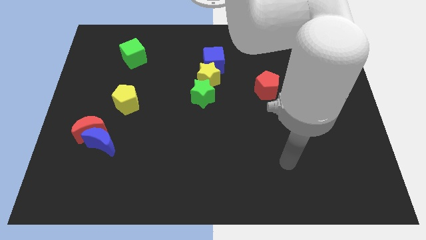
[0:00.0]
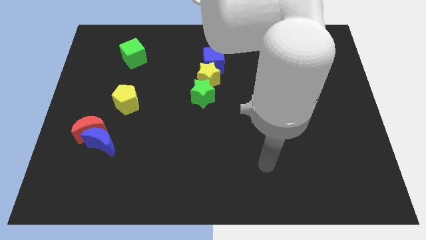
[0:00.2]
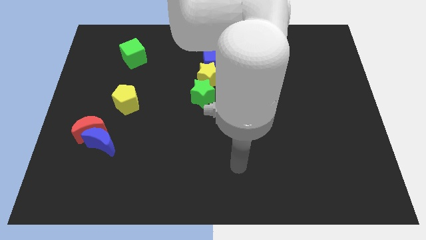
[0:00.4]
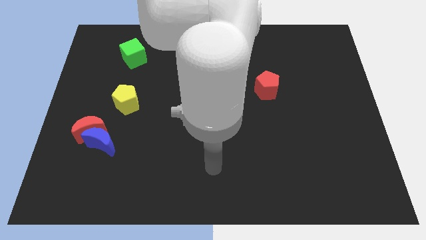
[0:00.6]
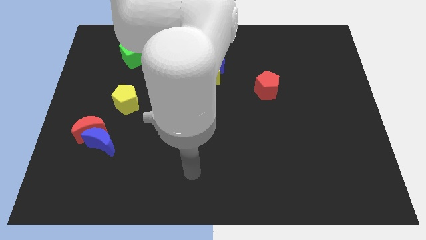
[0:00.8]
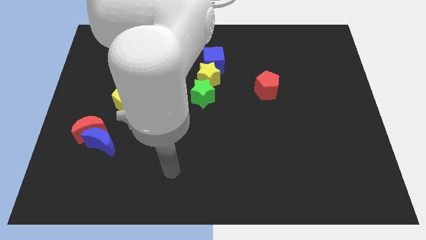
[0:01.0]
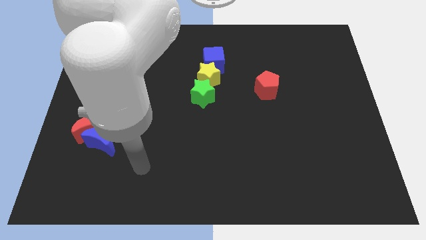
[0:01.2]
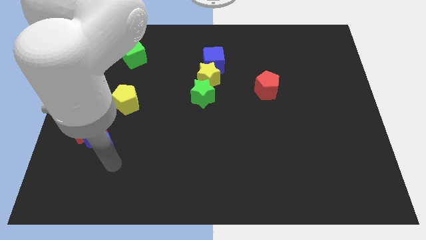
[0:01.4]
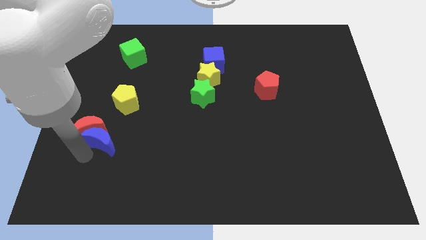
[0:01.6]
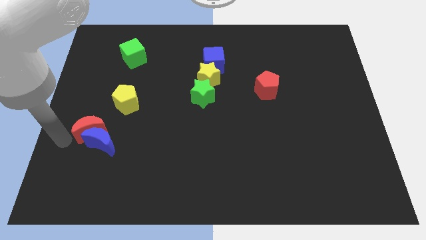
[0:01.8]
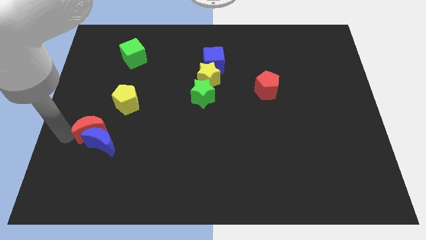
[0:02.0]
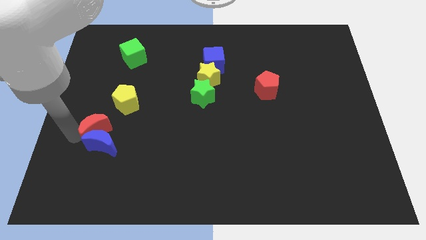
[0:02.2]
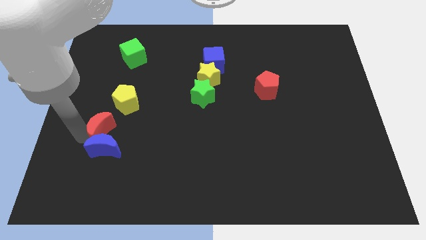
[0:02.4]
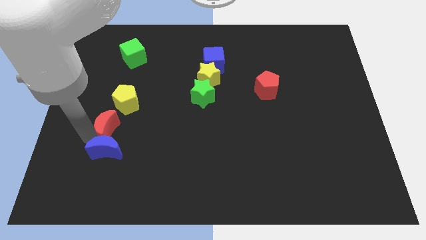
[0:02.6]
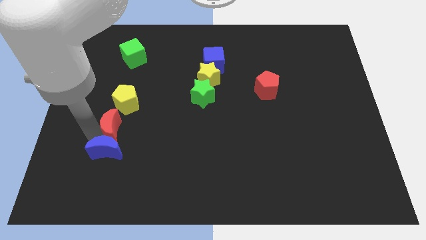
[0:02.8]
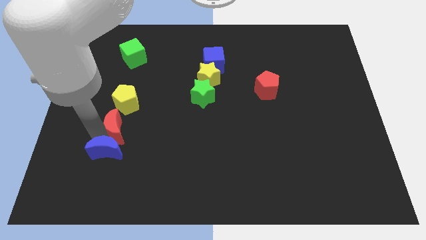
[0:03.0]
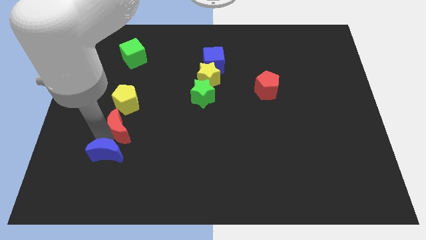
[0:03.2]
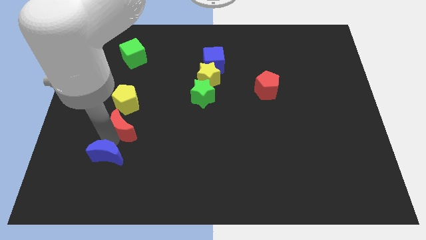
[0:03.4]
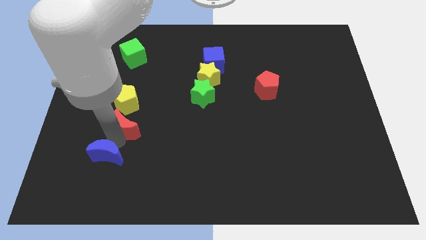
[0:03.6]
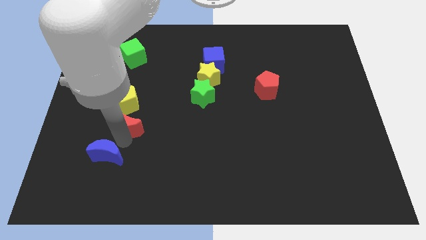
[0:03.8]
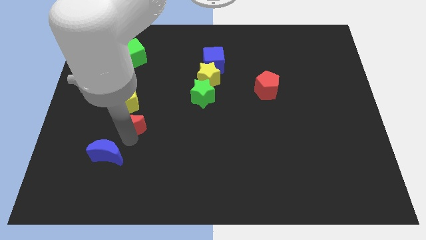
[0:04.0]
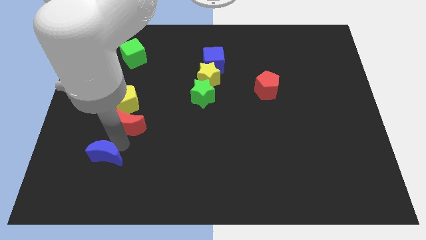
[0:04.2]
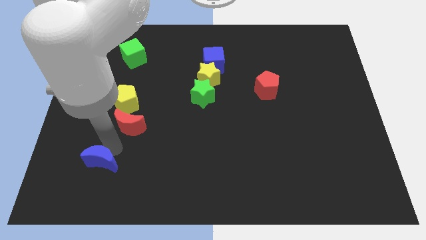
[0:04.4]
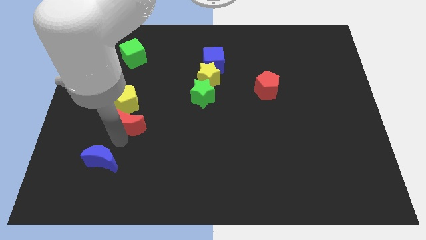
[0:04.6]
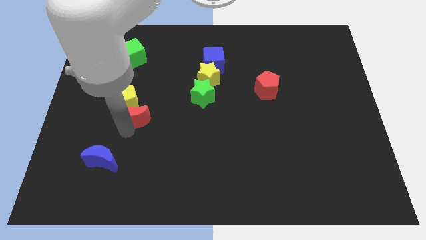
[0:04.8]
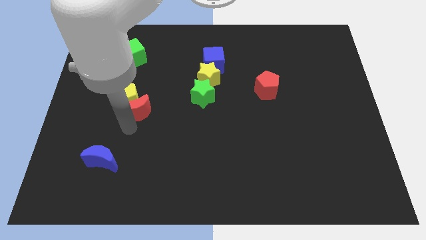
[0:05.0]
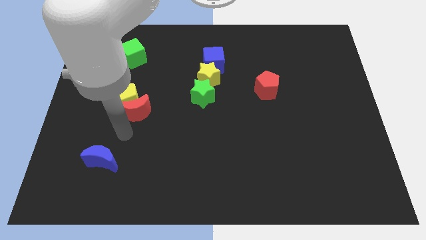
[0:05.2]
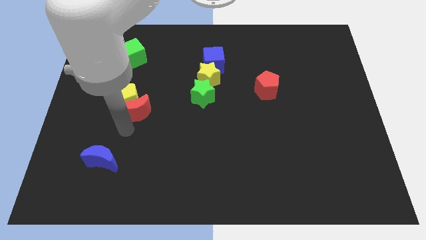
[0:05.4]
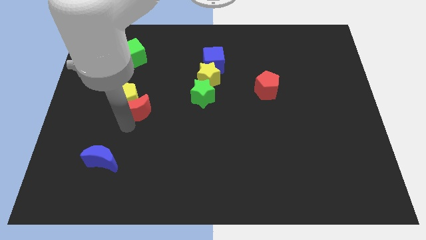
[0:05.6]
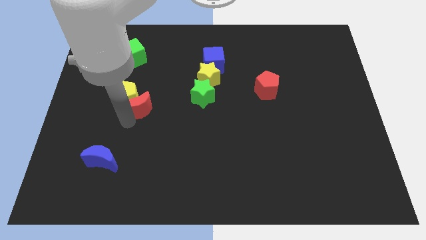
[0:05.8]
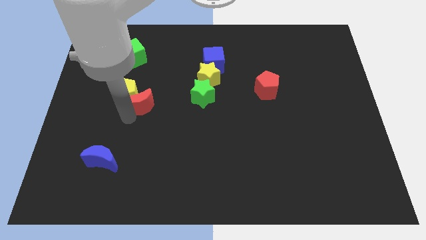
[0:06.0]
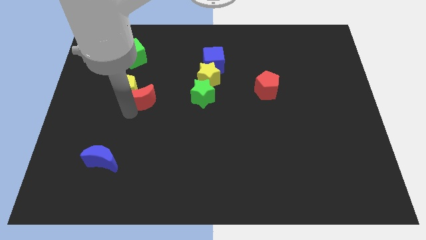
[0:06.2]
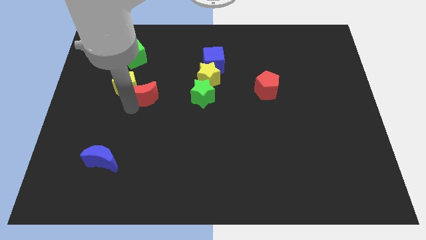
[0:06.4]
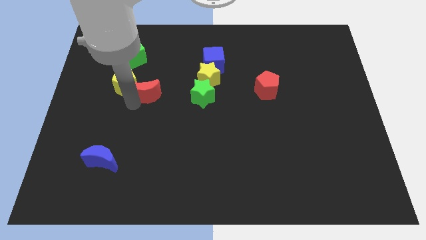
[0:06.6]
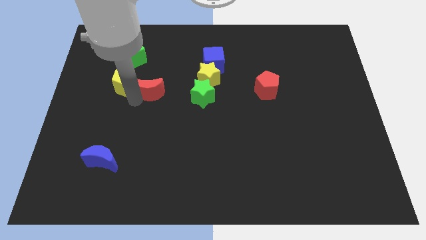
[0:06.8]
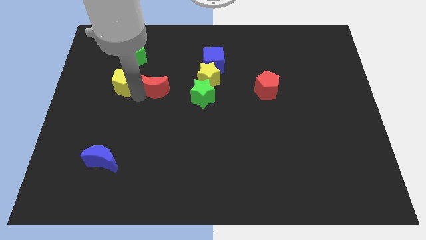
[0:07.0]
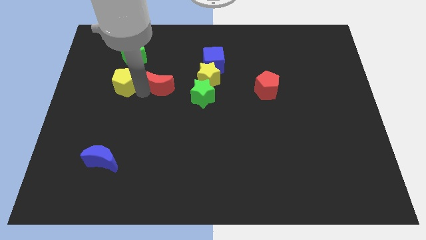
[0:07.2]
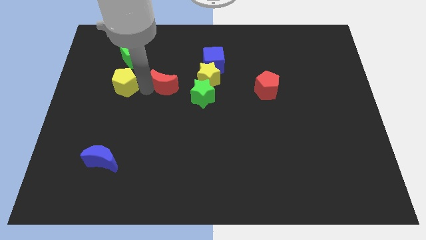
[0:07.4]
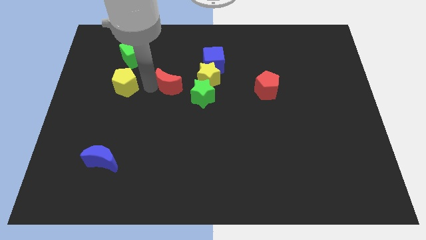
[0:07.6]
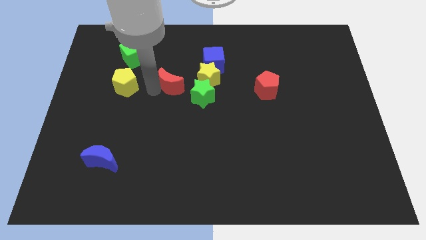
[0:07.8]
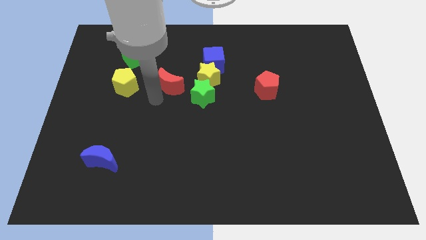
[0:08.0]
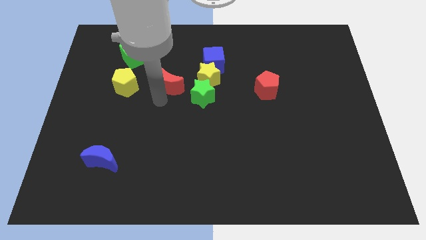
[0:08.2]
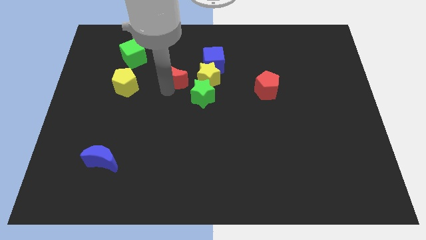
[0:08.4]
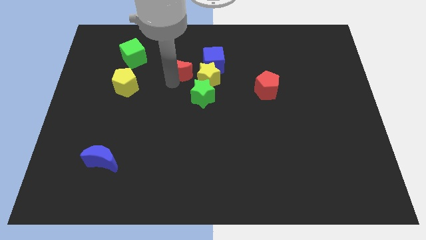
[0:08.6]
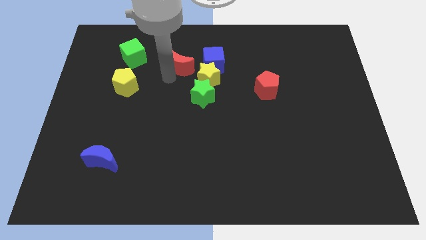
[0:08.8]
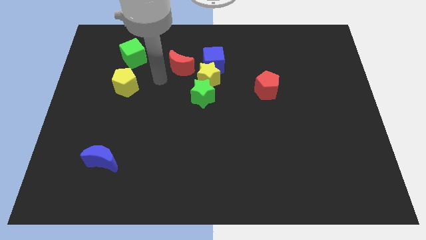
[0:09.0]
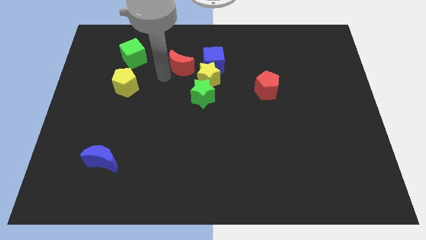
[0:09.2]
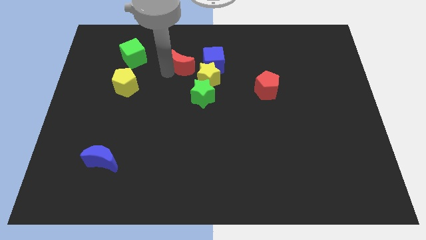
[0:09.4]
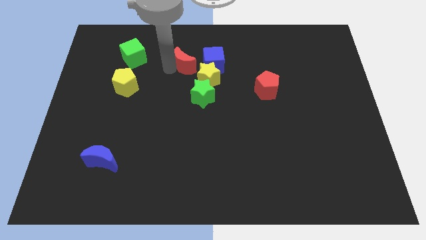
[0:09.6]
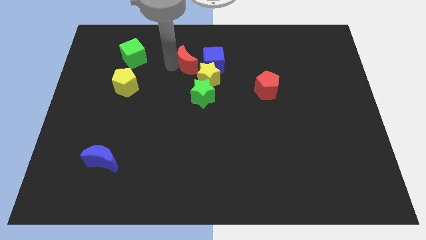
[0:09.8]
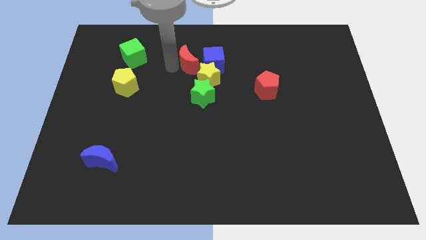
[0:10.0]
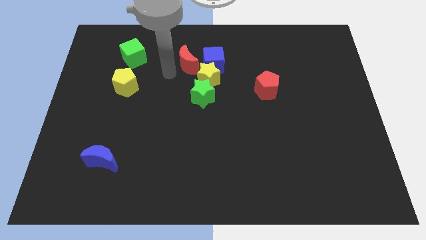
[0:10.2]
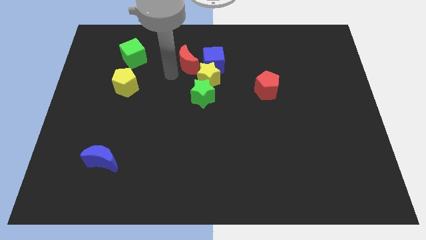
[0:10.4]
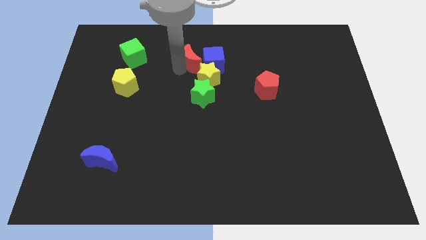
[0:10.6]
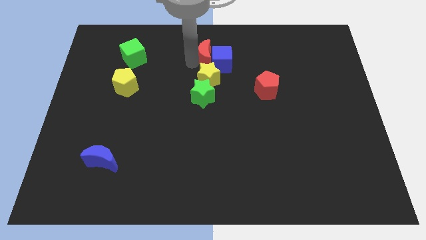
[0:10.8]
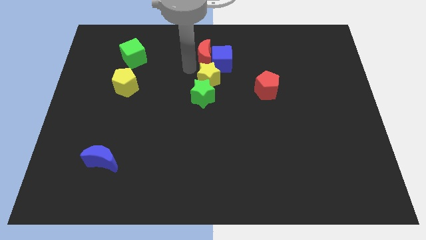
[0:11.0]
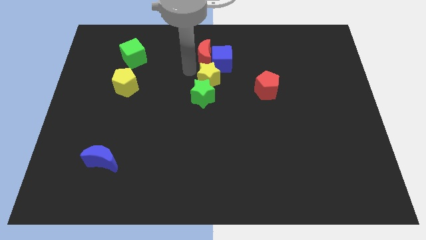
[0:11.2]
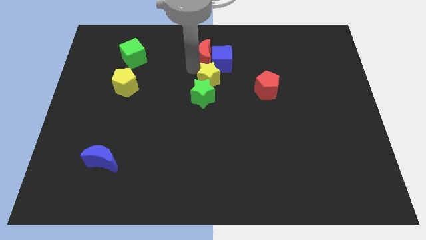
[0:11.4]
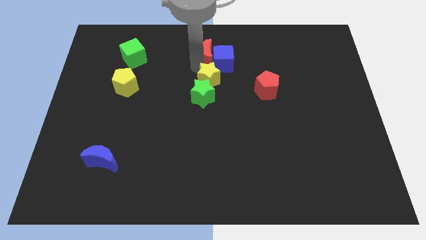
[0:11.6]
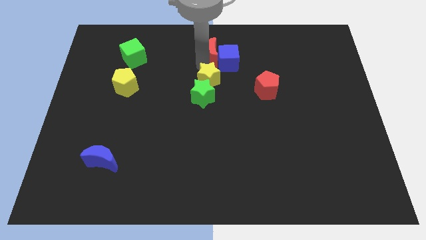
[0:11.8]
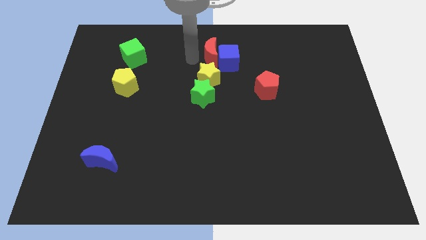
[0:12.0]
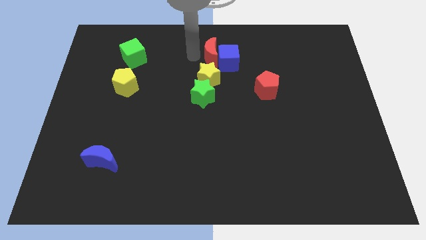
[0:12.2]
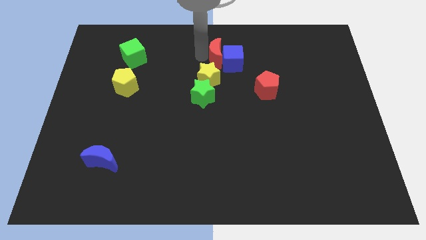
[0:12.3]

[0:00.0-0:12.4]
push the red moon to the top right side of the yellow star

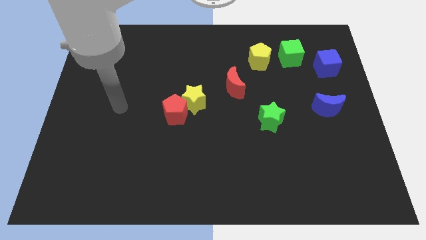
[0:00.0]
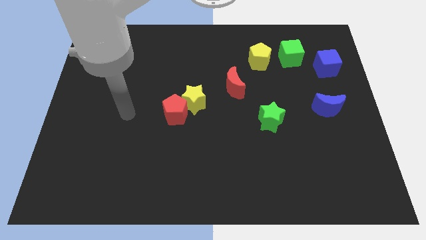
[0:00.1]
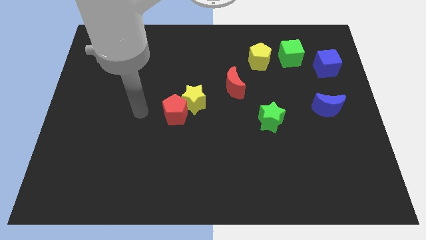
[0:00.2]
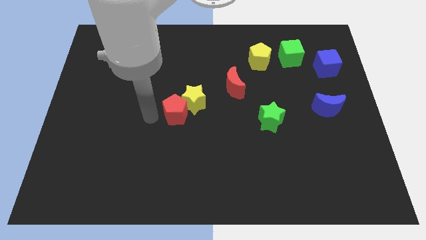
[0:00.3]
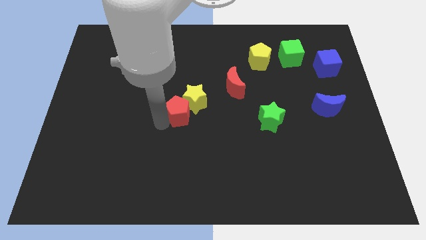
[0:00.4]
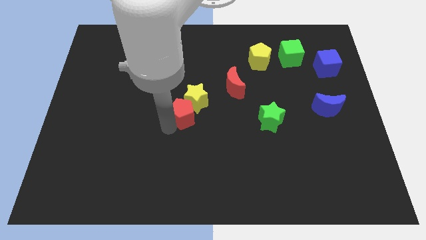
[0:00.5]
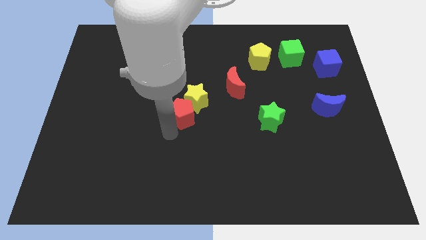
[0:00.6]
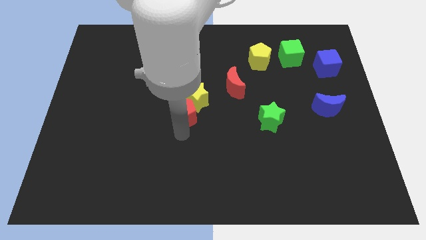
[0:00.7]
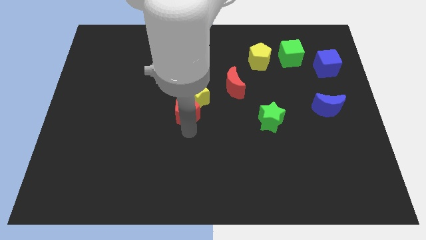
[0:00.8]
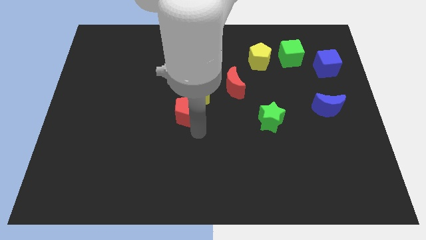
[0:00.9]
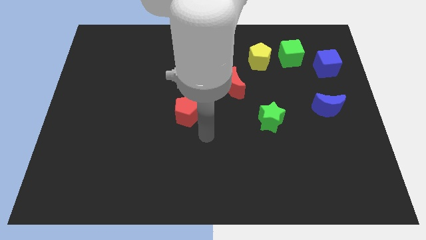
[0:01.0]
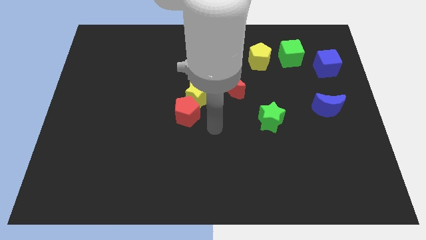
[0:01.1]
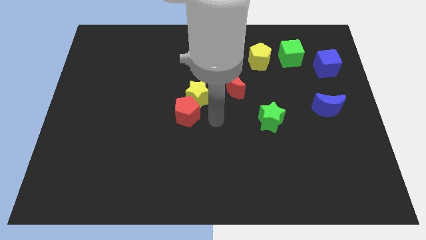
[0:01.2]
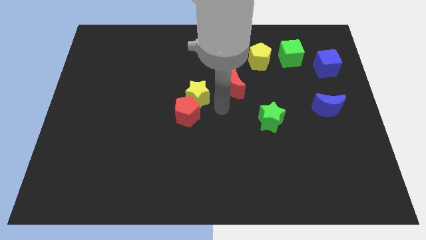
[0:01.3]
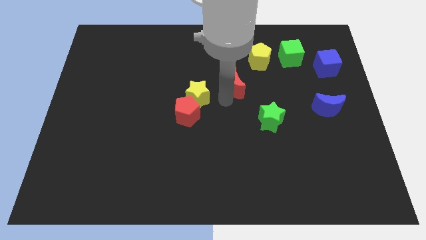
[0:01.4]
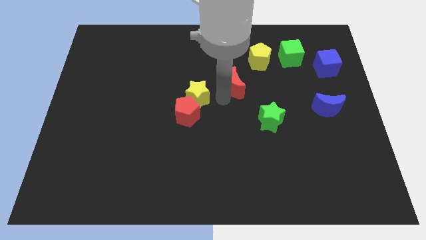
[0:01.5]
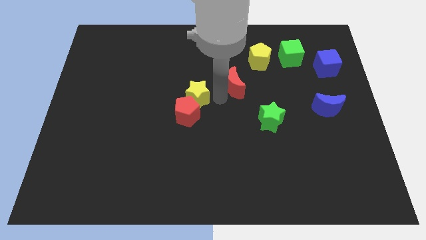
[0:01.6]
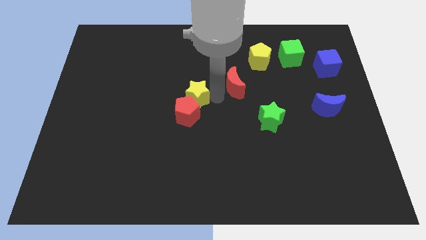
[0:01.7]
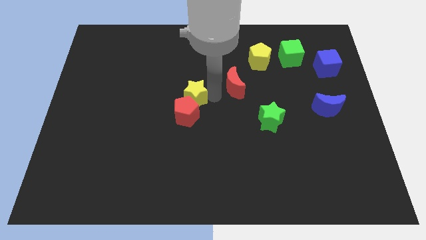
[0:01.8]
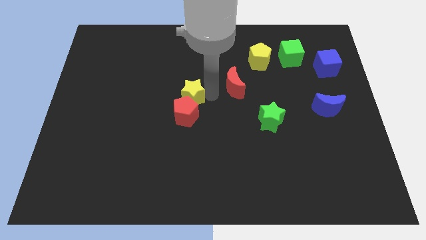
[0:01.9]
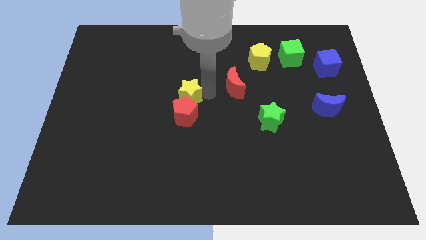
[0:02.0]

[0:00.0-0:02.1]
move the yellow star diagonally up and to the left of the red pentagon
